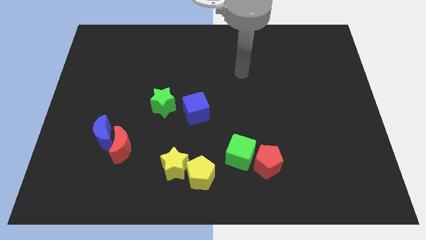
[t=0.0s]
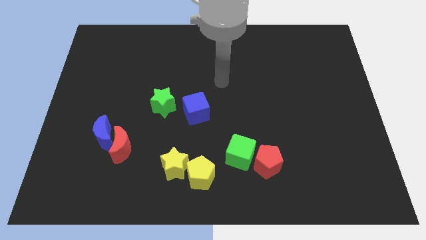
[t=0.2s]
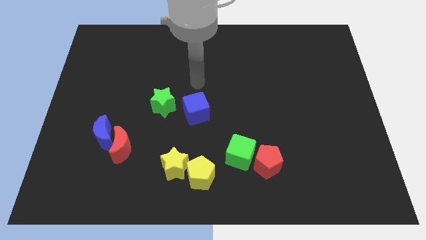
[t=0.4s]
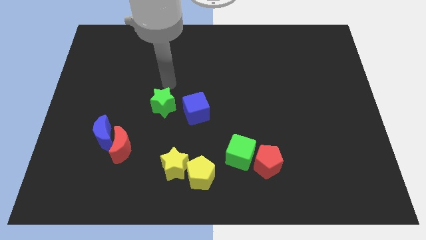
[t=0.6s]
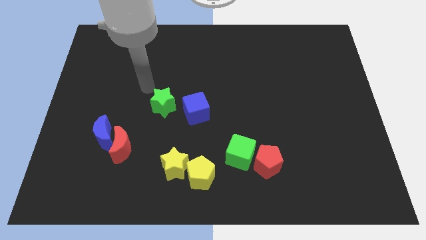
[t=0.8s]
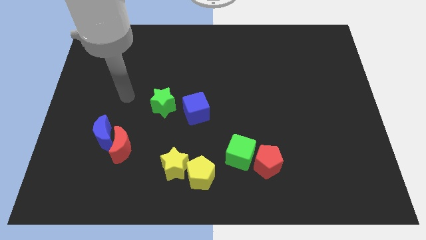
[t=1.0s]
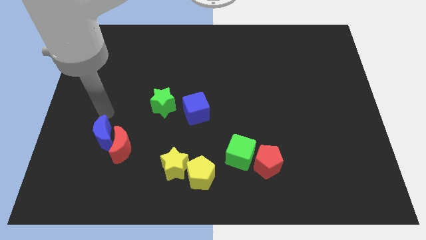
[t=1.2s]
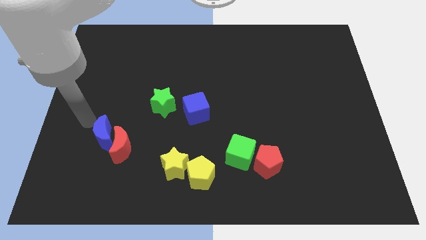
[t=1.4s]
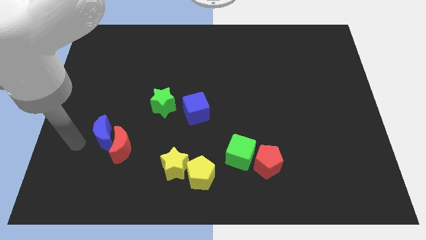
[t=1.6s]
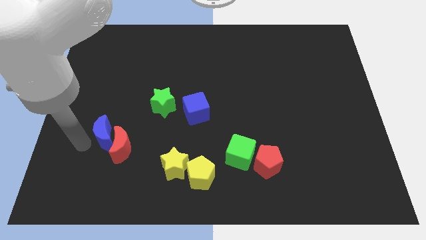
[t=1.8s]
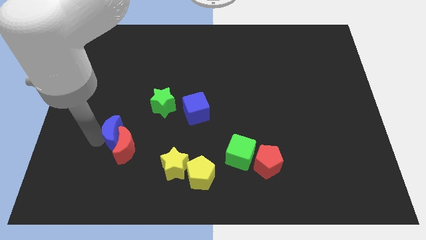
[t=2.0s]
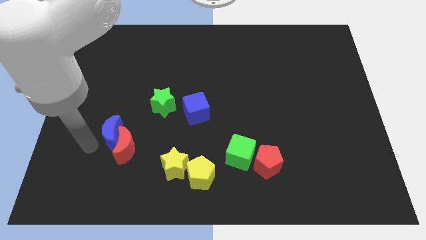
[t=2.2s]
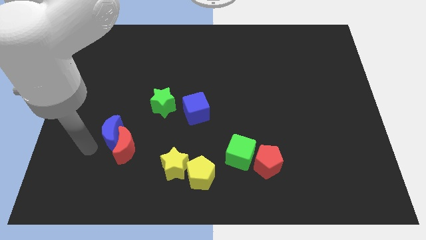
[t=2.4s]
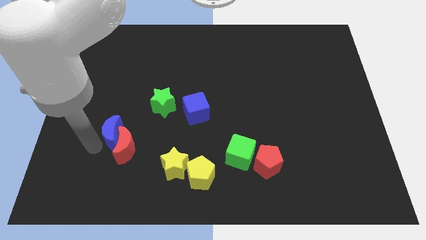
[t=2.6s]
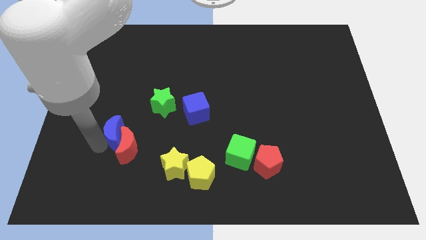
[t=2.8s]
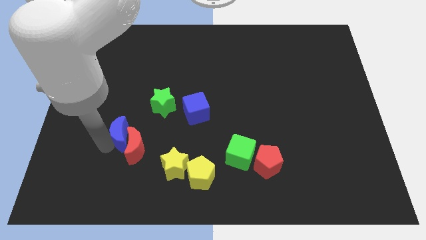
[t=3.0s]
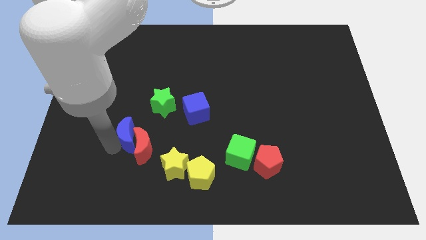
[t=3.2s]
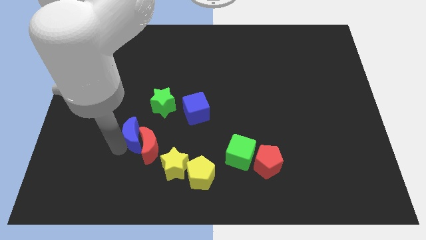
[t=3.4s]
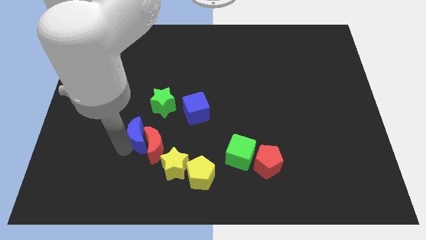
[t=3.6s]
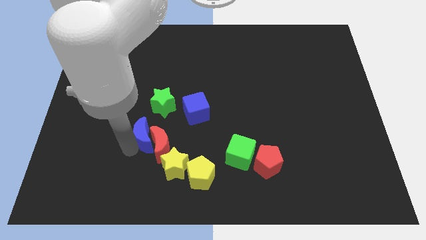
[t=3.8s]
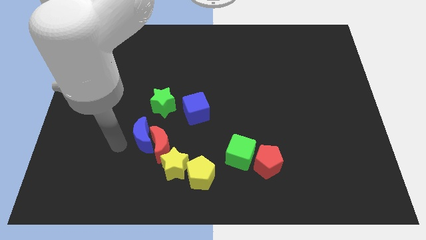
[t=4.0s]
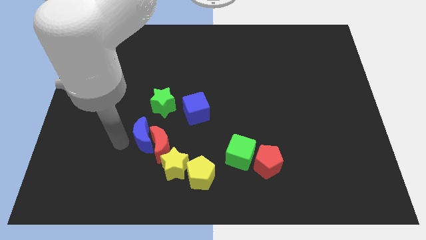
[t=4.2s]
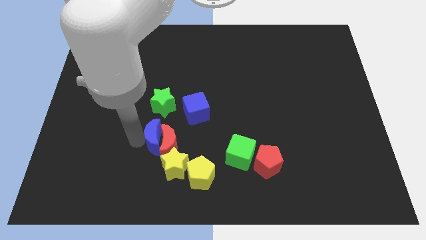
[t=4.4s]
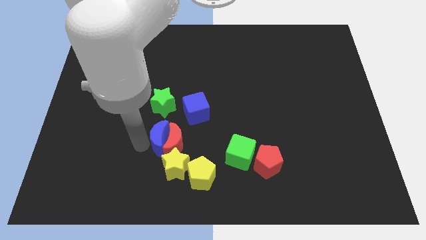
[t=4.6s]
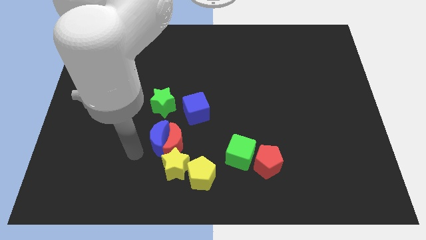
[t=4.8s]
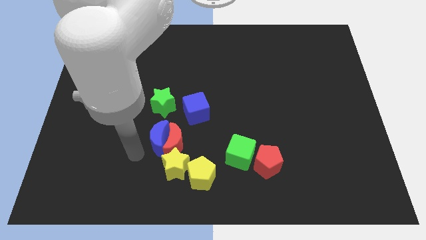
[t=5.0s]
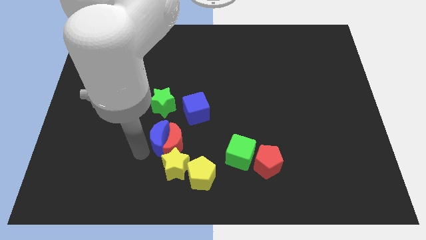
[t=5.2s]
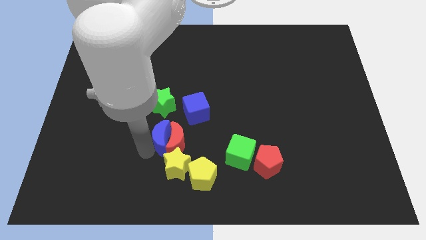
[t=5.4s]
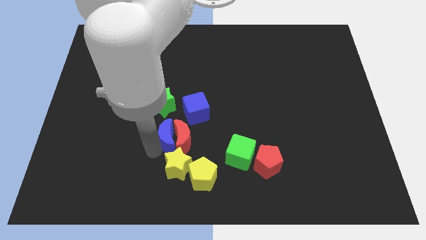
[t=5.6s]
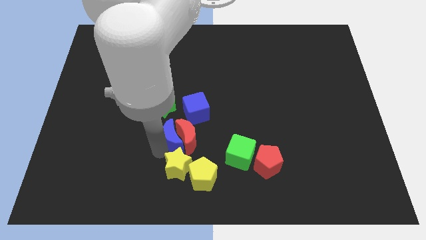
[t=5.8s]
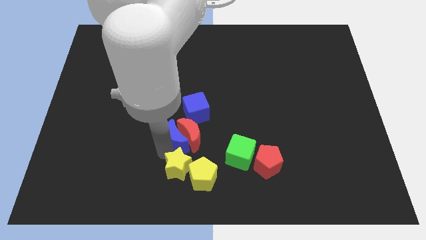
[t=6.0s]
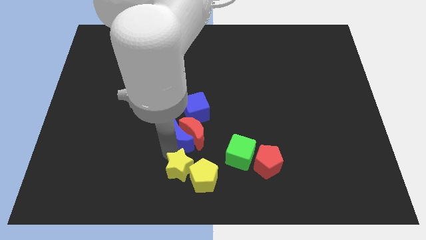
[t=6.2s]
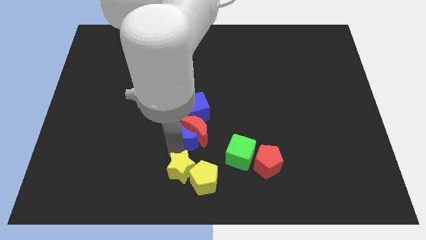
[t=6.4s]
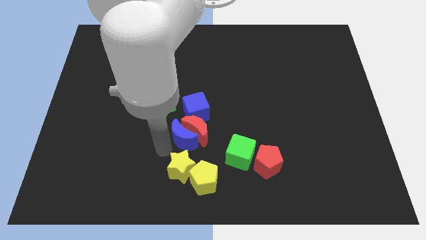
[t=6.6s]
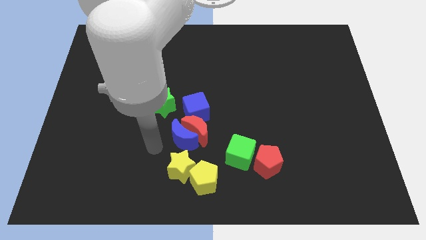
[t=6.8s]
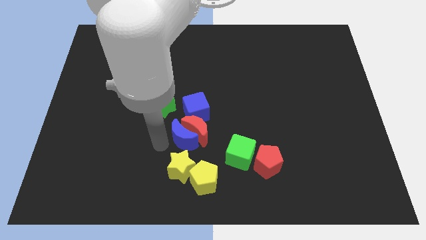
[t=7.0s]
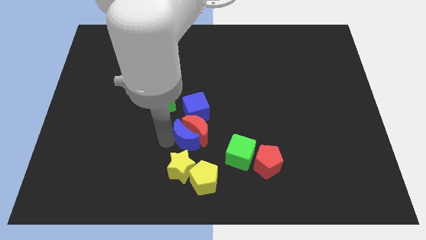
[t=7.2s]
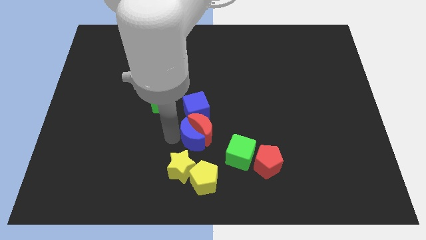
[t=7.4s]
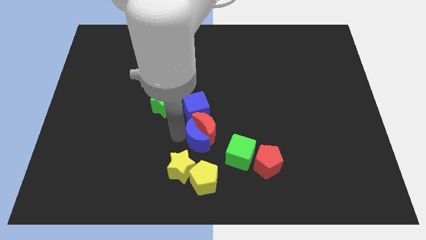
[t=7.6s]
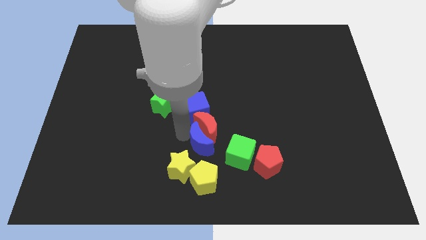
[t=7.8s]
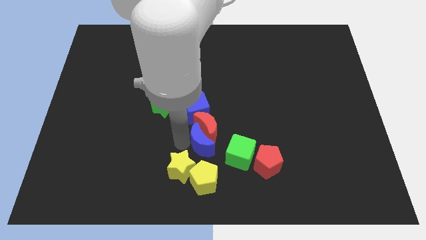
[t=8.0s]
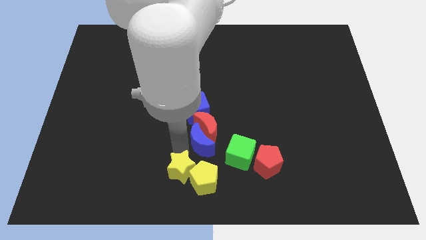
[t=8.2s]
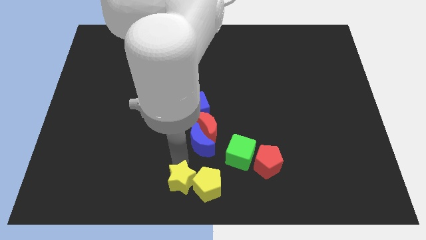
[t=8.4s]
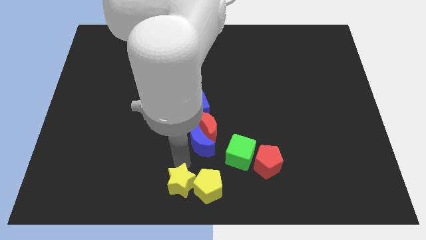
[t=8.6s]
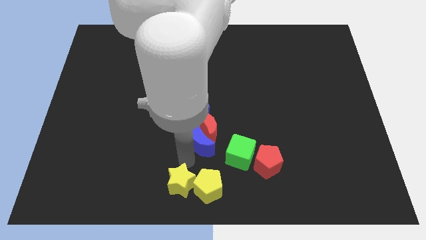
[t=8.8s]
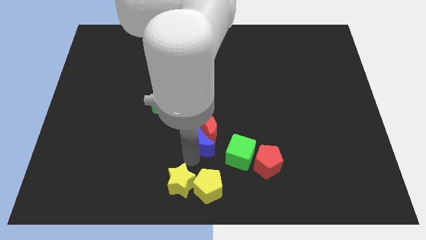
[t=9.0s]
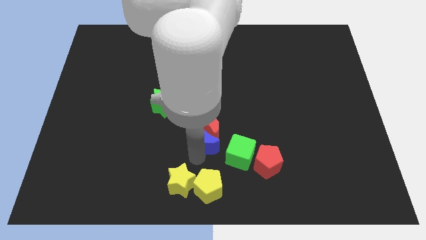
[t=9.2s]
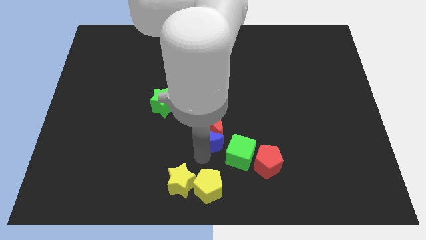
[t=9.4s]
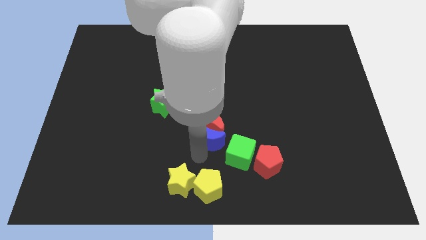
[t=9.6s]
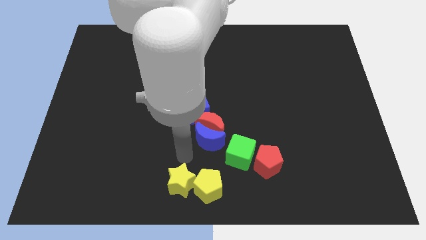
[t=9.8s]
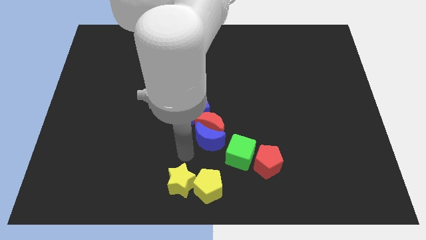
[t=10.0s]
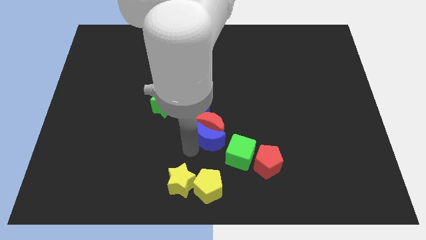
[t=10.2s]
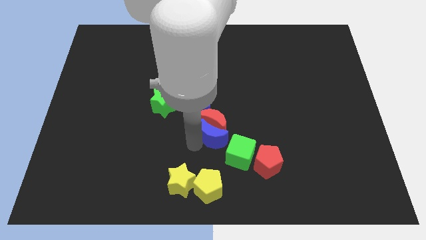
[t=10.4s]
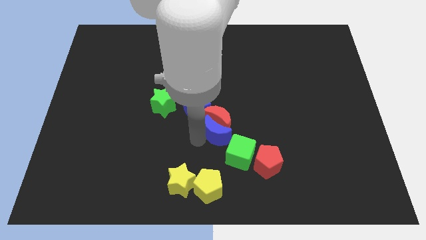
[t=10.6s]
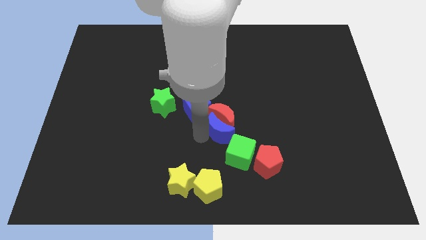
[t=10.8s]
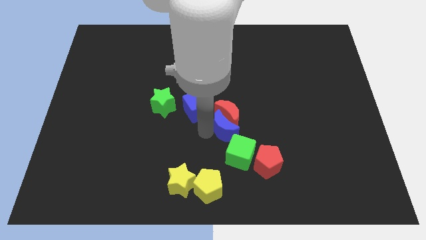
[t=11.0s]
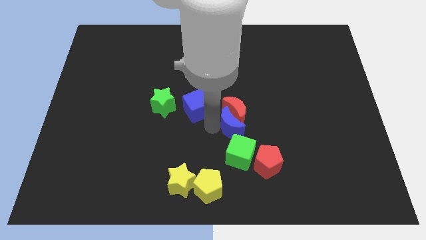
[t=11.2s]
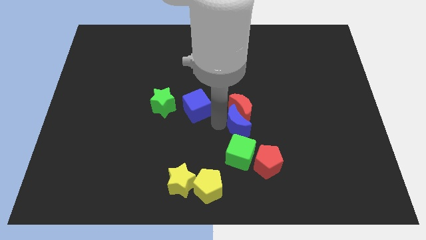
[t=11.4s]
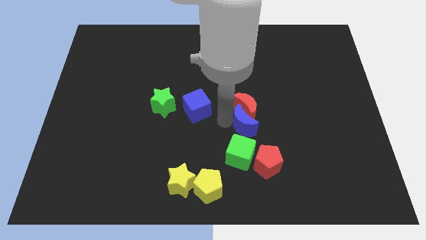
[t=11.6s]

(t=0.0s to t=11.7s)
move the blue moon to the top side of the red pentagon

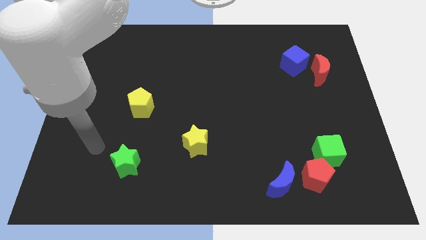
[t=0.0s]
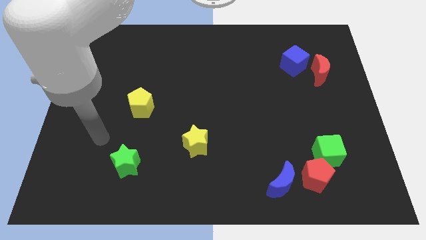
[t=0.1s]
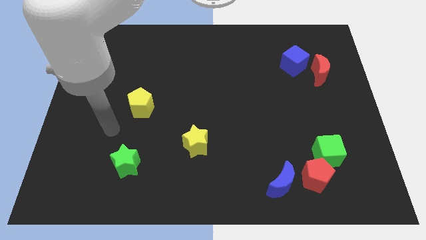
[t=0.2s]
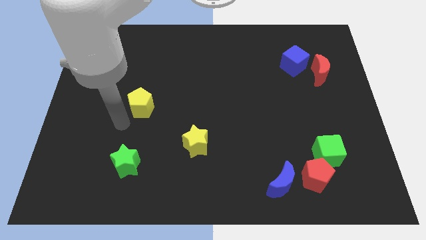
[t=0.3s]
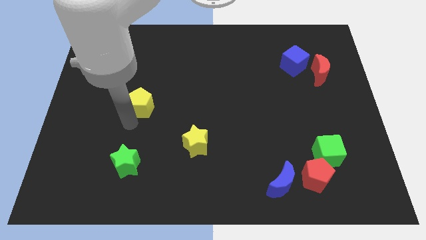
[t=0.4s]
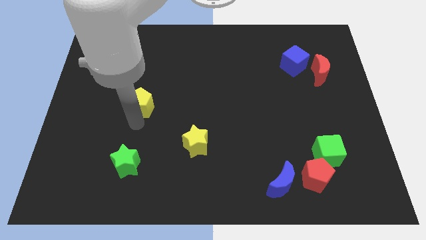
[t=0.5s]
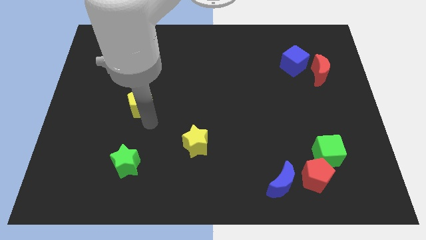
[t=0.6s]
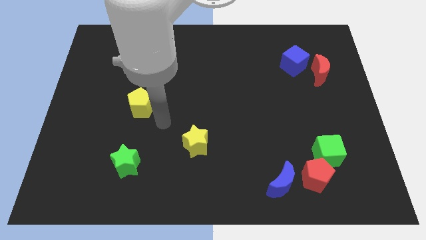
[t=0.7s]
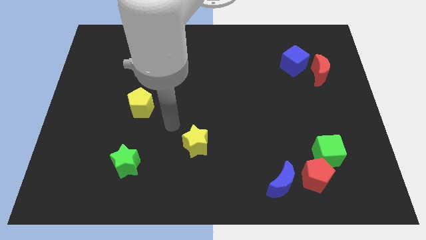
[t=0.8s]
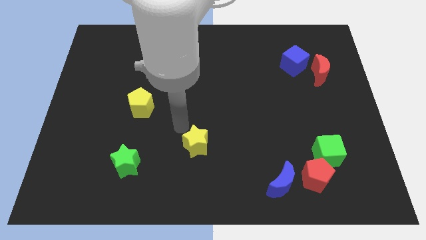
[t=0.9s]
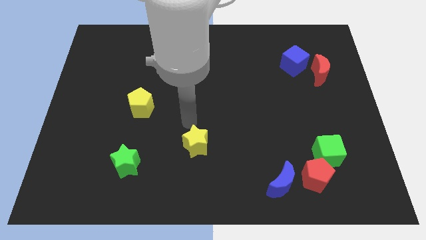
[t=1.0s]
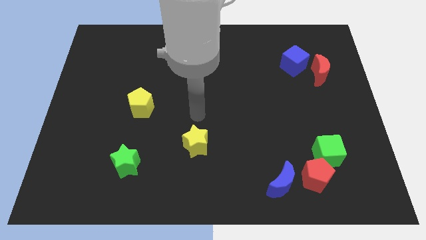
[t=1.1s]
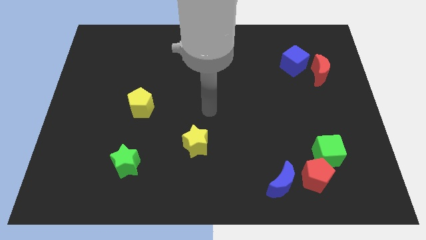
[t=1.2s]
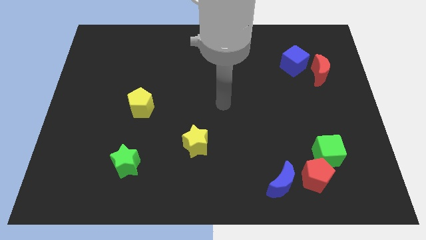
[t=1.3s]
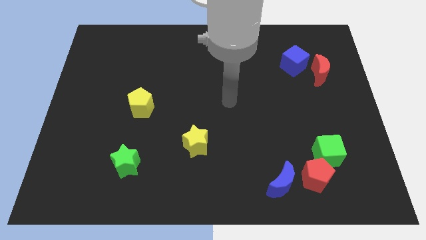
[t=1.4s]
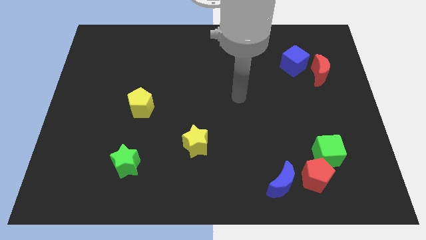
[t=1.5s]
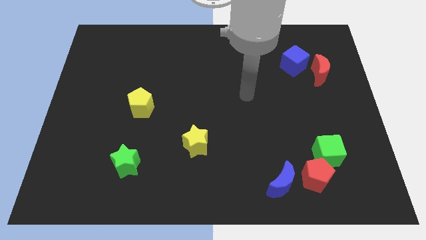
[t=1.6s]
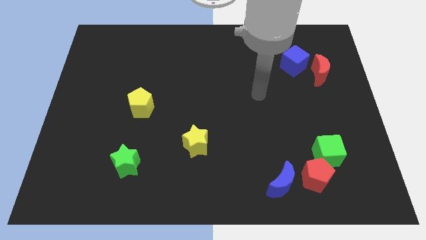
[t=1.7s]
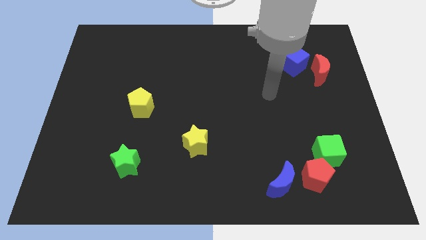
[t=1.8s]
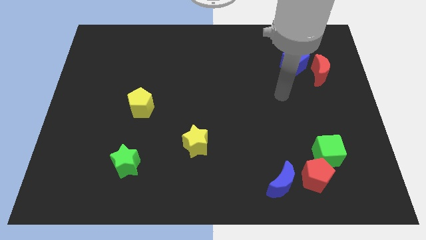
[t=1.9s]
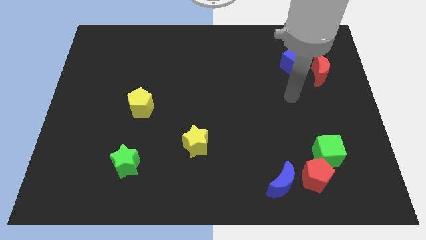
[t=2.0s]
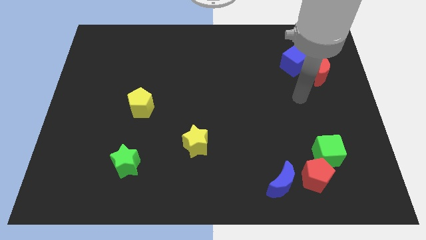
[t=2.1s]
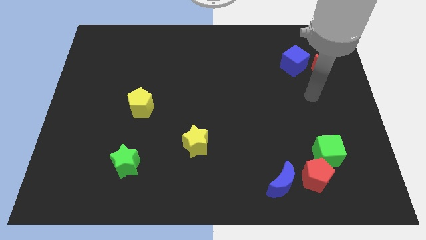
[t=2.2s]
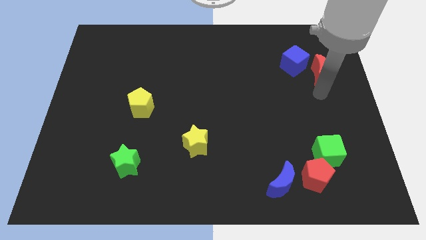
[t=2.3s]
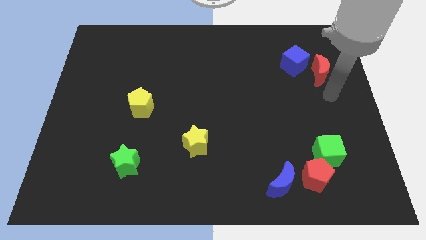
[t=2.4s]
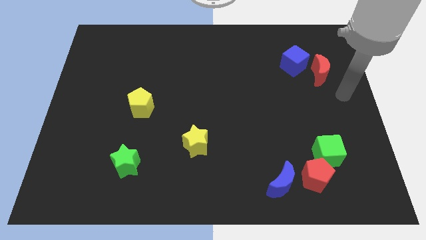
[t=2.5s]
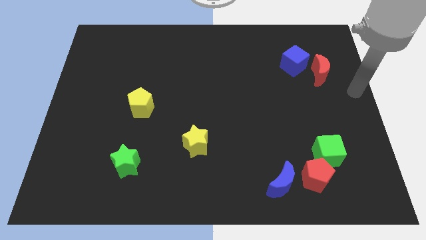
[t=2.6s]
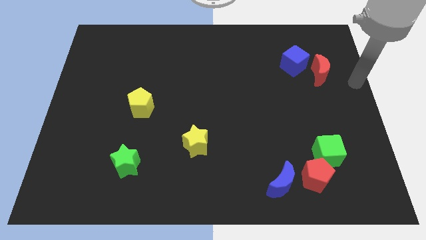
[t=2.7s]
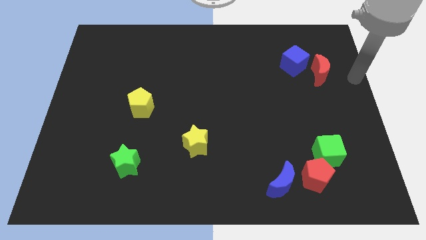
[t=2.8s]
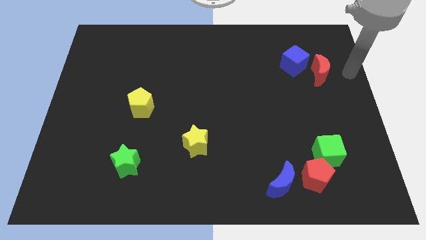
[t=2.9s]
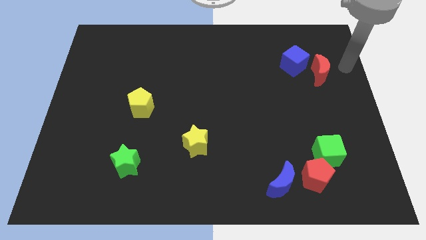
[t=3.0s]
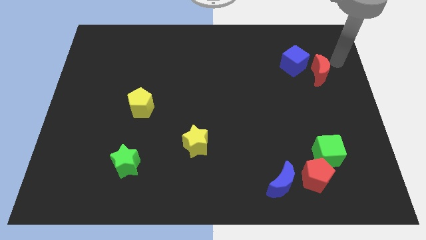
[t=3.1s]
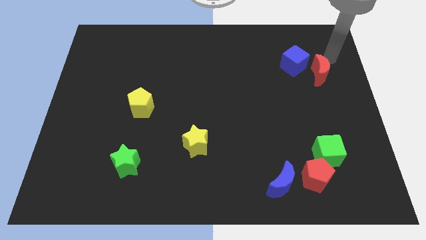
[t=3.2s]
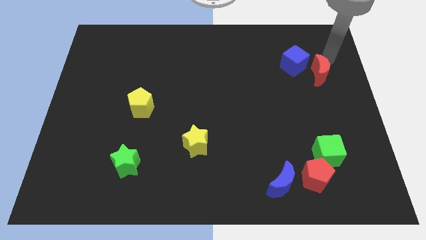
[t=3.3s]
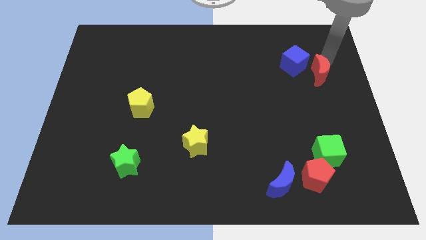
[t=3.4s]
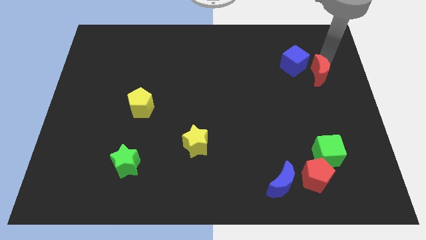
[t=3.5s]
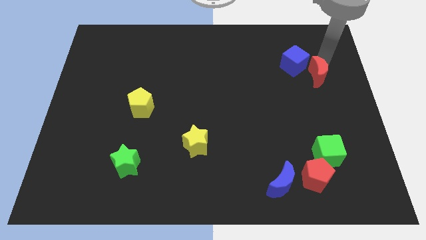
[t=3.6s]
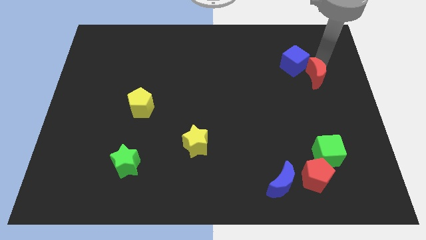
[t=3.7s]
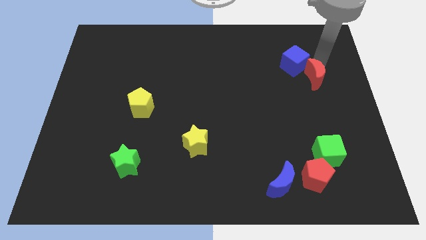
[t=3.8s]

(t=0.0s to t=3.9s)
slide the red moon below the blue cube
